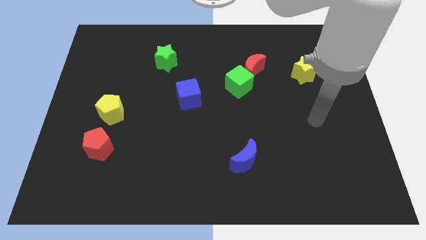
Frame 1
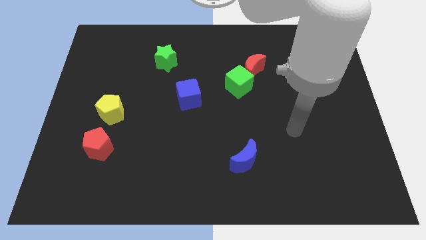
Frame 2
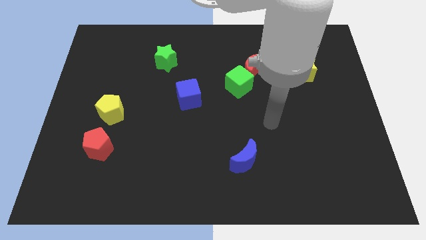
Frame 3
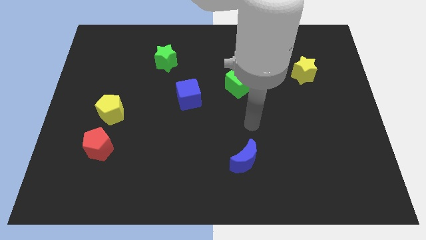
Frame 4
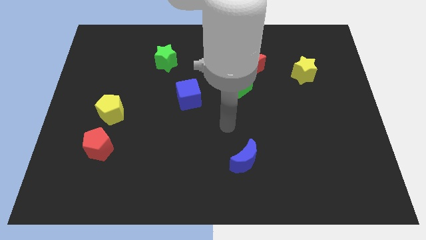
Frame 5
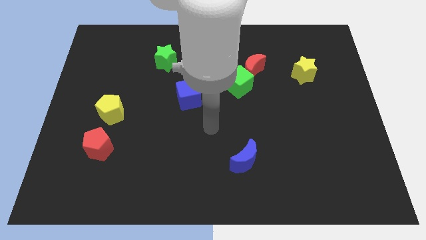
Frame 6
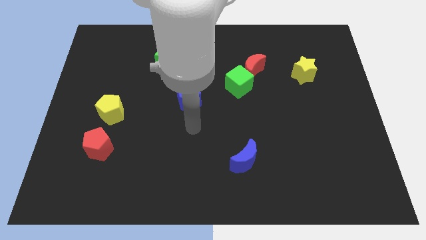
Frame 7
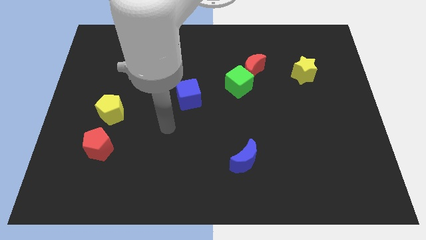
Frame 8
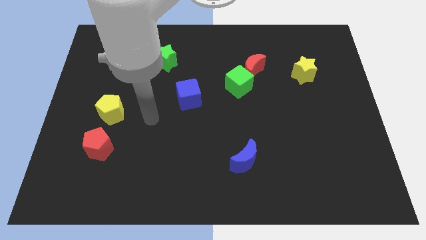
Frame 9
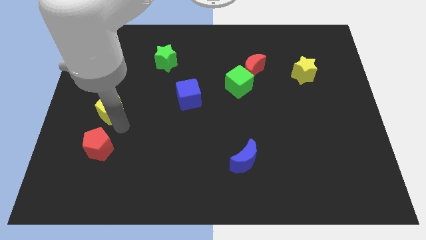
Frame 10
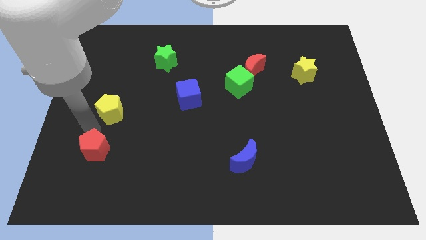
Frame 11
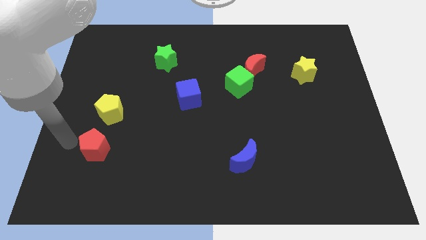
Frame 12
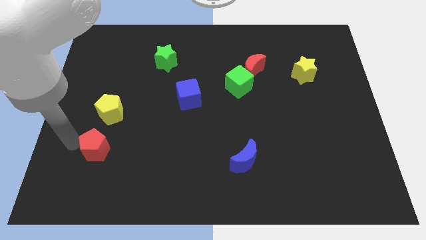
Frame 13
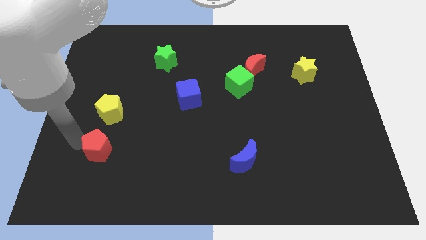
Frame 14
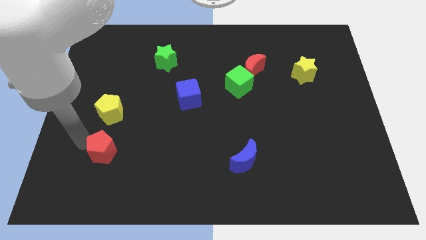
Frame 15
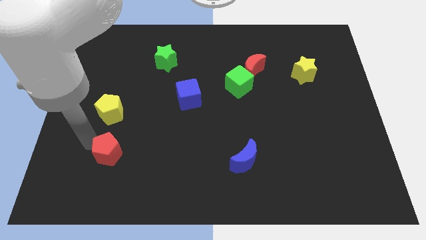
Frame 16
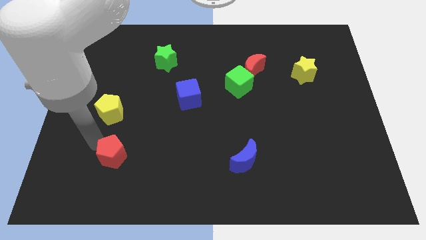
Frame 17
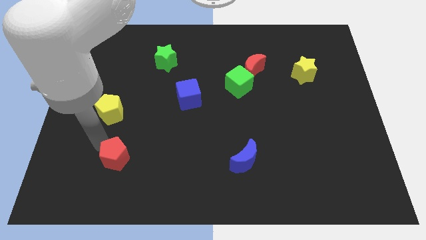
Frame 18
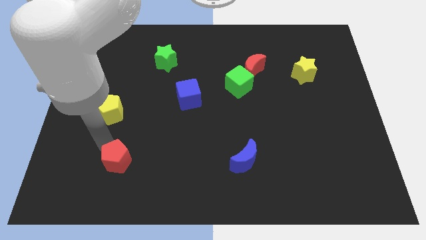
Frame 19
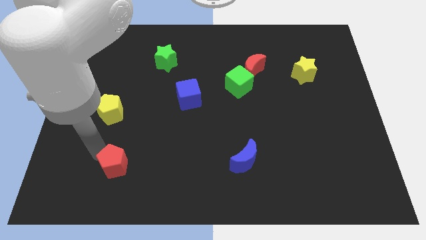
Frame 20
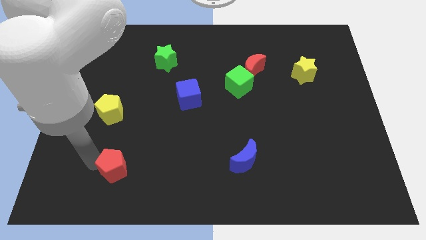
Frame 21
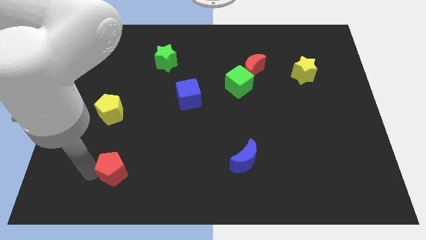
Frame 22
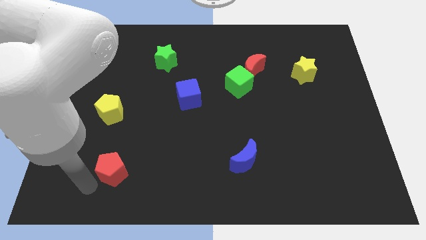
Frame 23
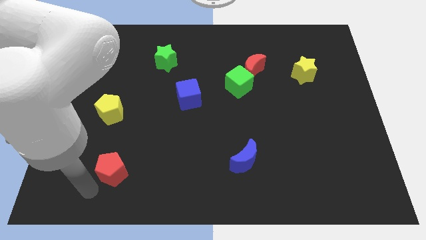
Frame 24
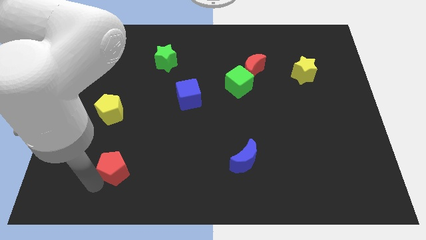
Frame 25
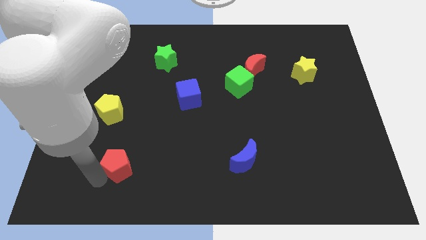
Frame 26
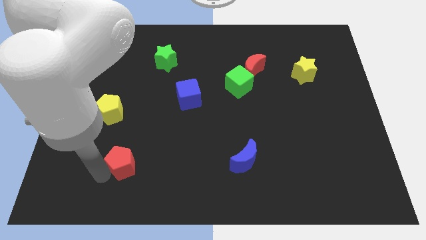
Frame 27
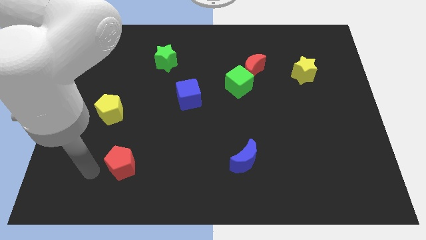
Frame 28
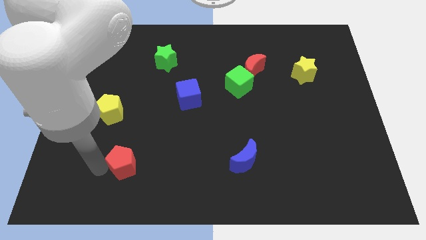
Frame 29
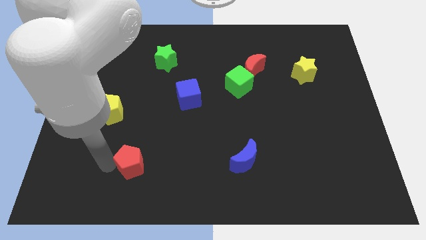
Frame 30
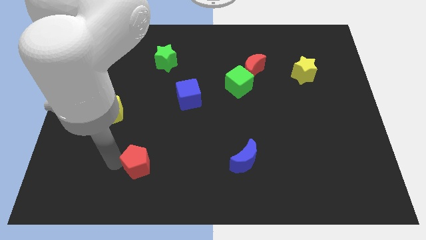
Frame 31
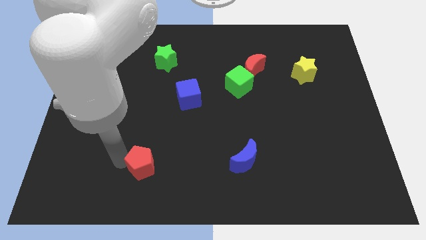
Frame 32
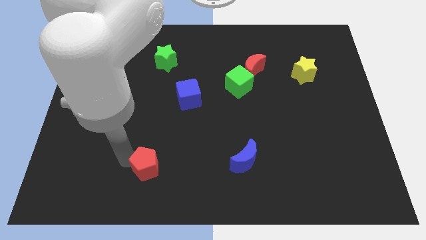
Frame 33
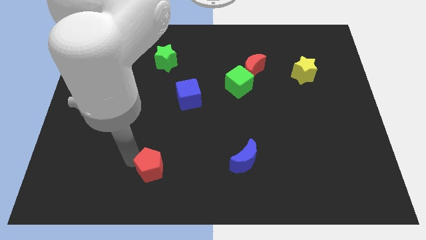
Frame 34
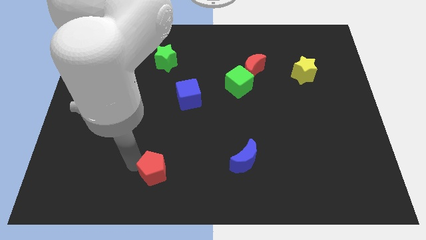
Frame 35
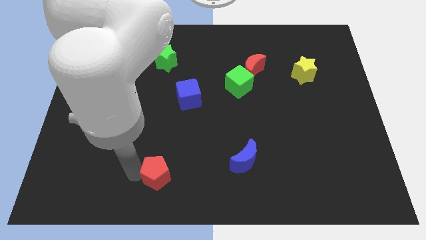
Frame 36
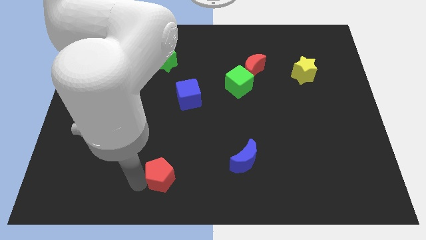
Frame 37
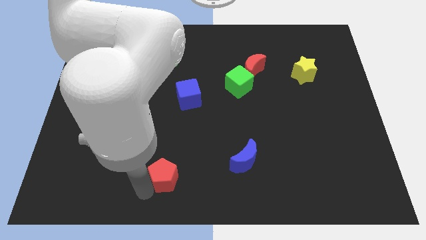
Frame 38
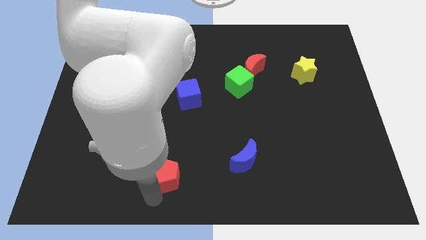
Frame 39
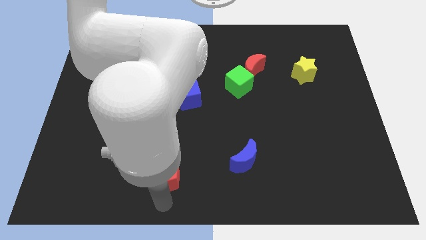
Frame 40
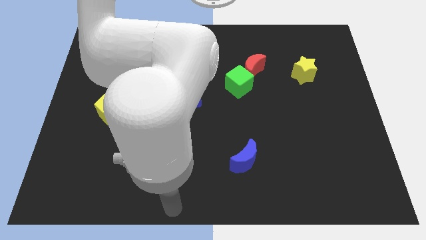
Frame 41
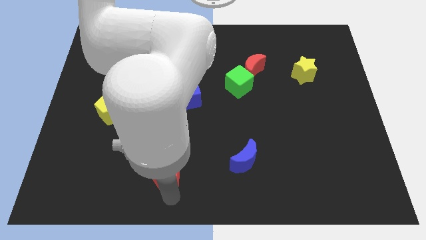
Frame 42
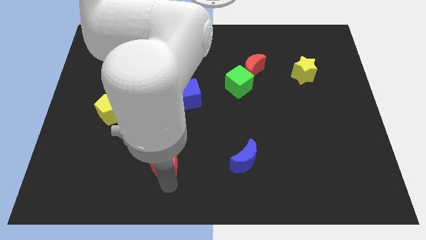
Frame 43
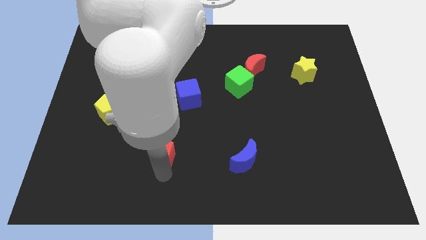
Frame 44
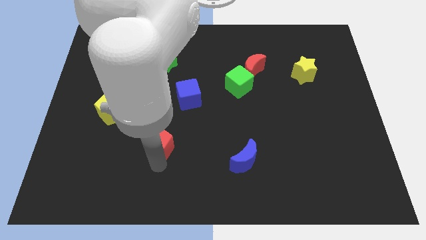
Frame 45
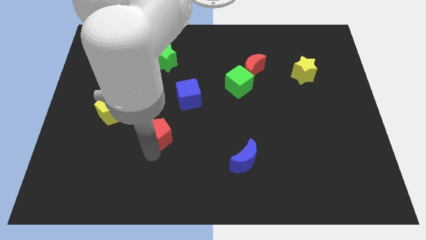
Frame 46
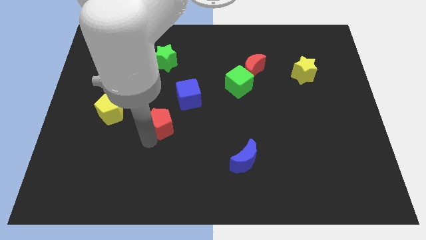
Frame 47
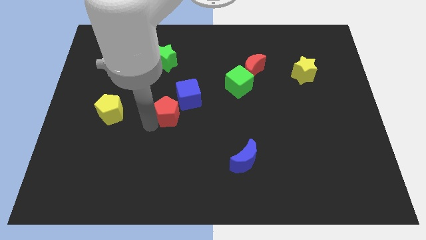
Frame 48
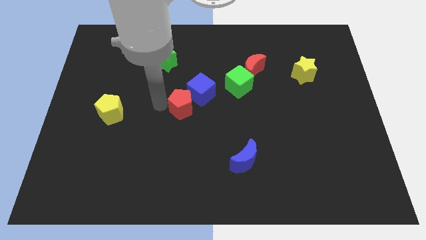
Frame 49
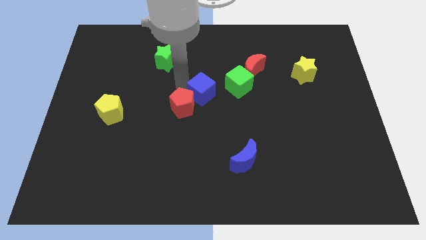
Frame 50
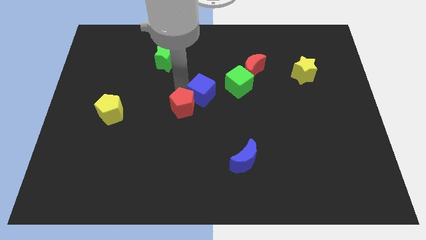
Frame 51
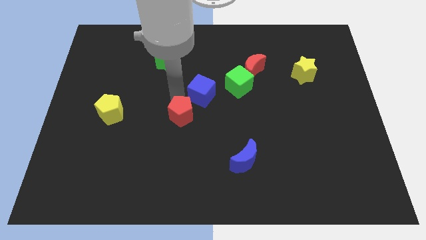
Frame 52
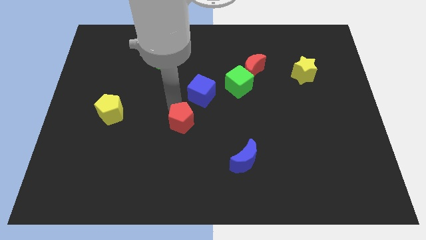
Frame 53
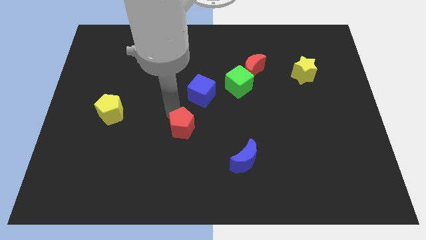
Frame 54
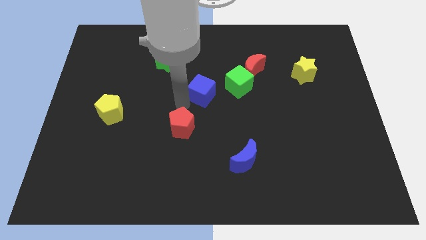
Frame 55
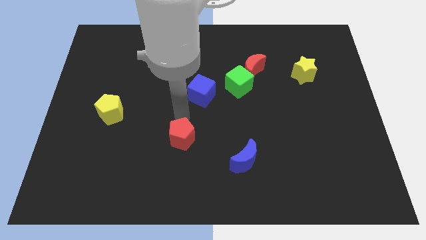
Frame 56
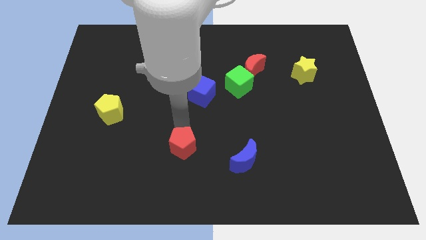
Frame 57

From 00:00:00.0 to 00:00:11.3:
slide the red pentagon to the left of the blue moon

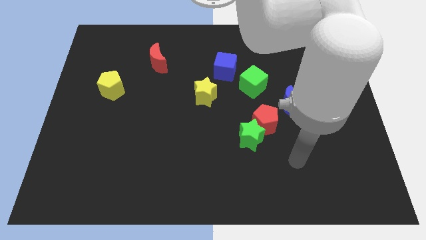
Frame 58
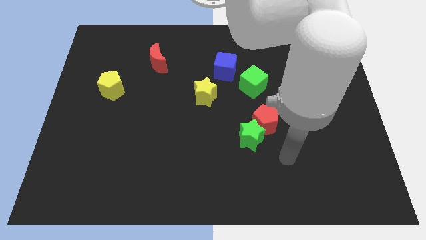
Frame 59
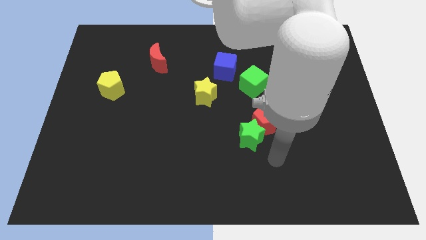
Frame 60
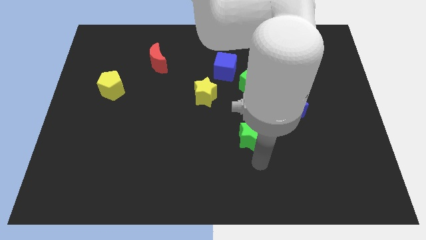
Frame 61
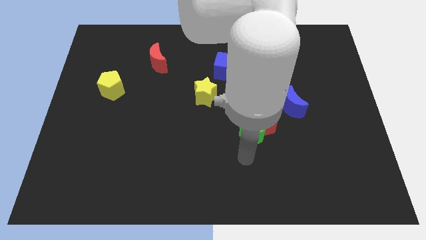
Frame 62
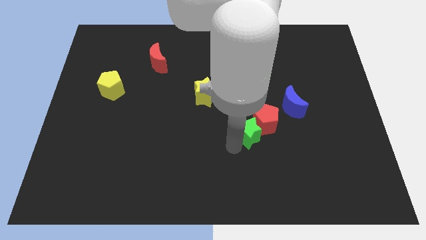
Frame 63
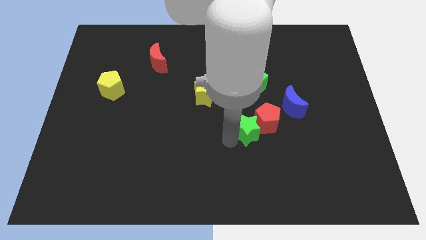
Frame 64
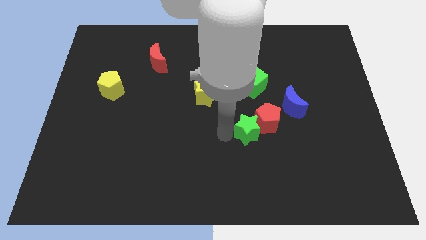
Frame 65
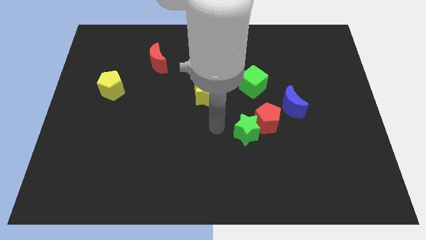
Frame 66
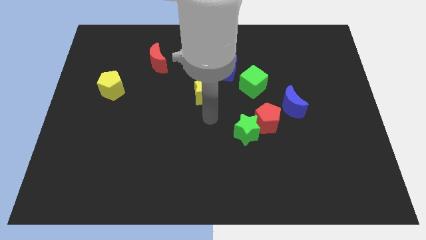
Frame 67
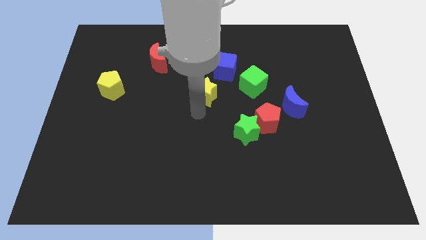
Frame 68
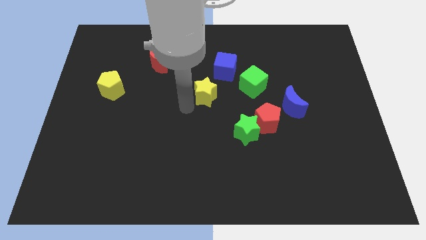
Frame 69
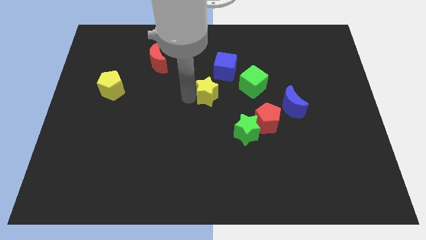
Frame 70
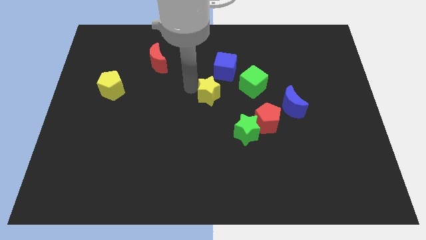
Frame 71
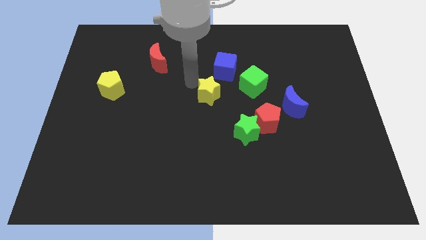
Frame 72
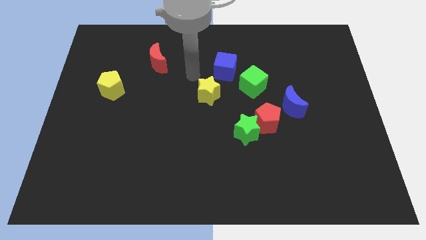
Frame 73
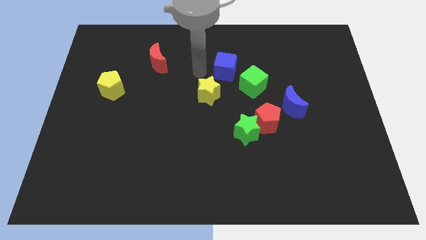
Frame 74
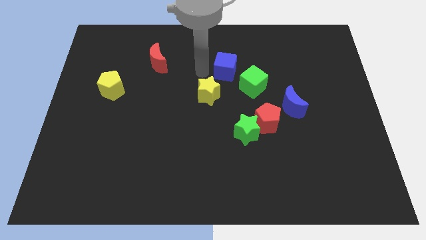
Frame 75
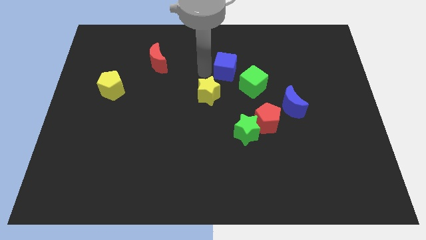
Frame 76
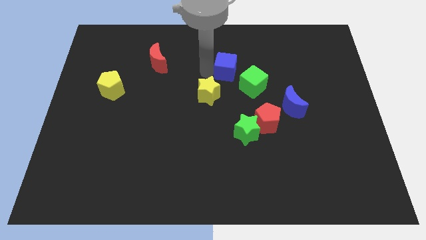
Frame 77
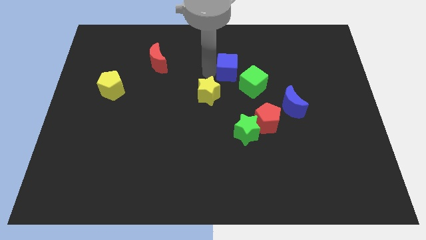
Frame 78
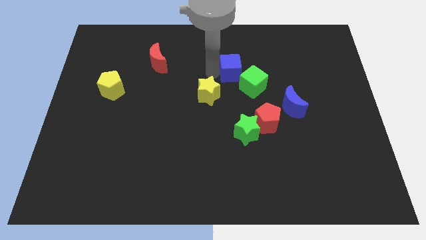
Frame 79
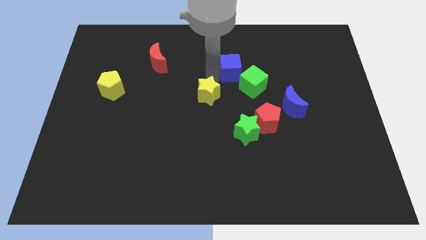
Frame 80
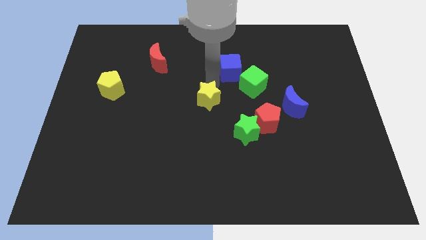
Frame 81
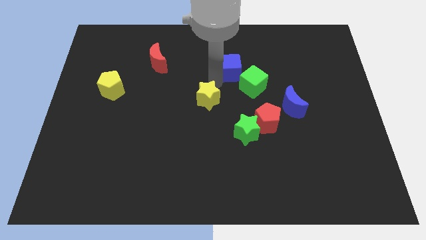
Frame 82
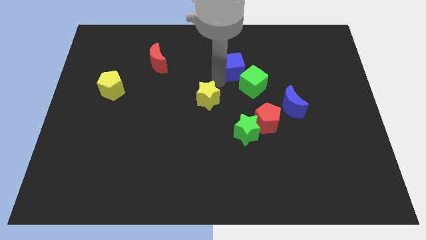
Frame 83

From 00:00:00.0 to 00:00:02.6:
push the blue cube to the top side of the green cube

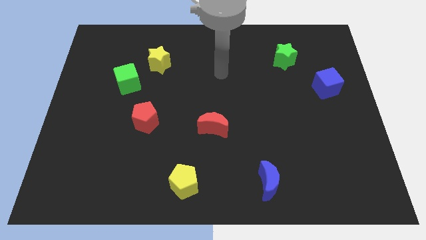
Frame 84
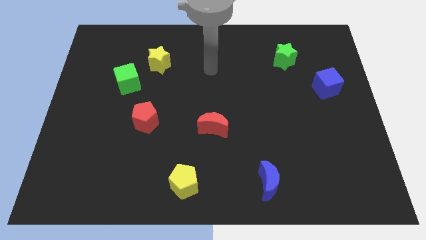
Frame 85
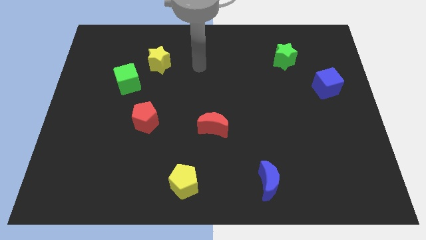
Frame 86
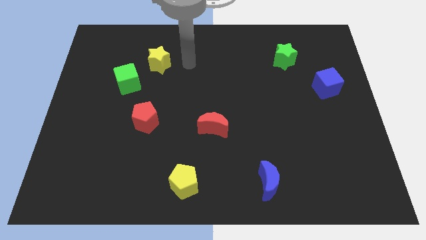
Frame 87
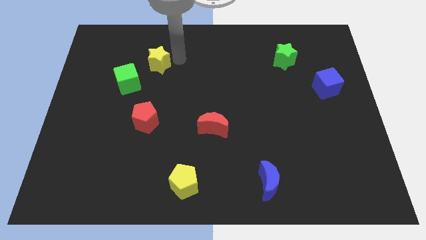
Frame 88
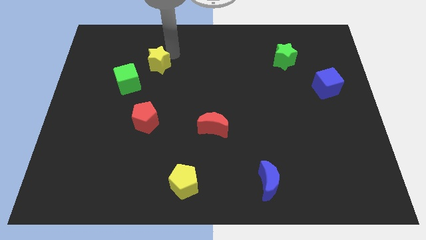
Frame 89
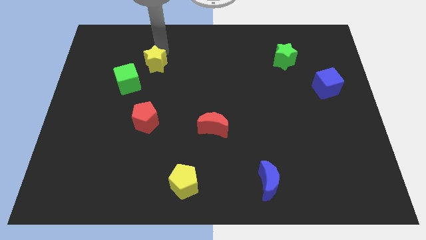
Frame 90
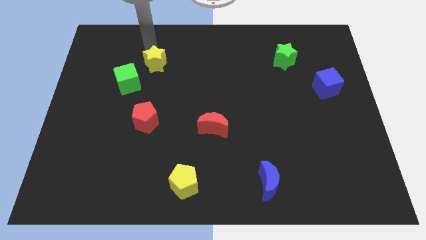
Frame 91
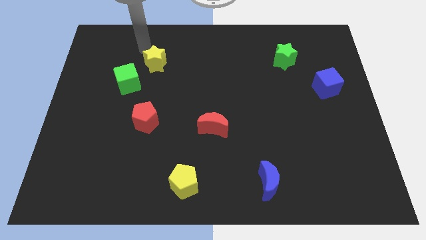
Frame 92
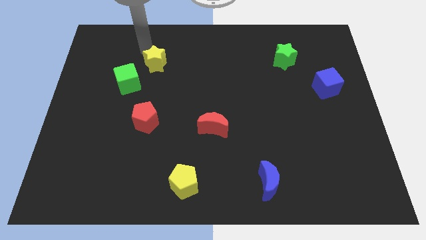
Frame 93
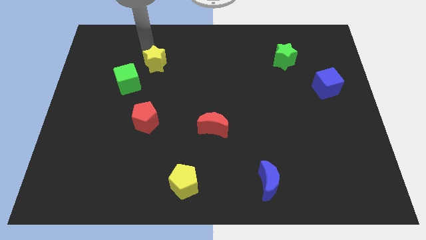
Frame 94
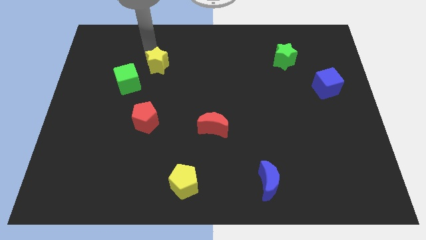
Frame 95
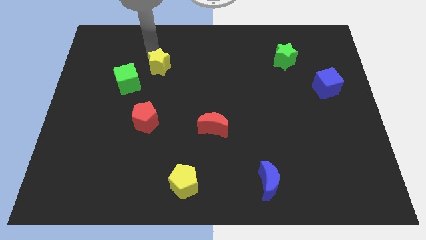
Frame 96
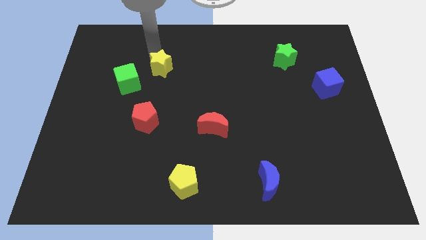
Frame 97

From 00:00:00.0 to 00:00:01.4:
move the yellow star right of the green cube
